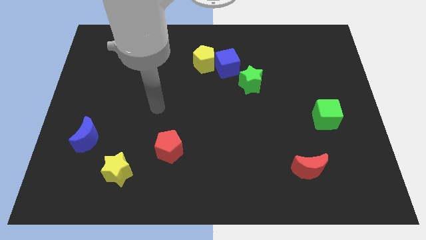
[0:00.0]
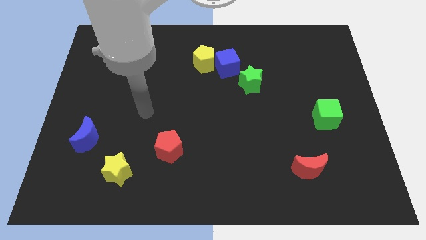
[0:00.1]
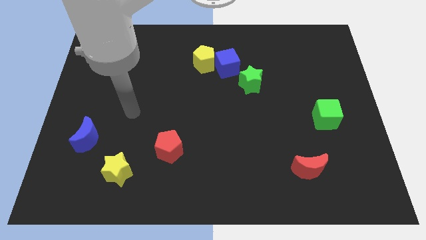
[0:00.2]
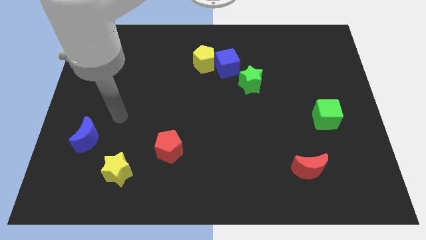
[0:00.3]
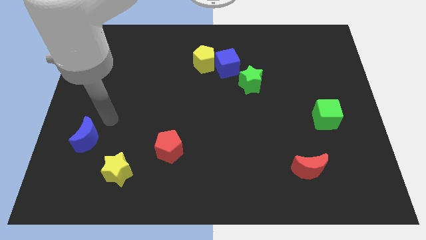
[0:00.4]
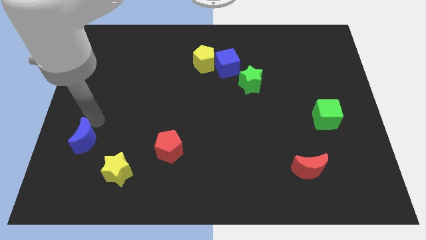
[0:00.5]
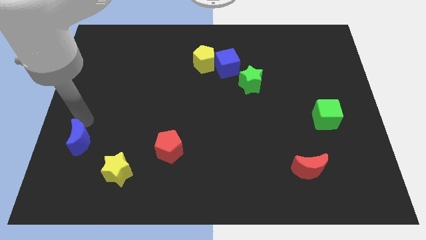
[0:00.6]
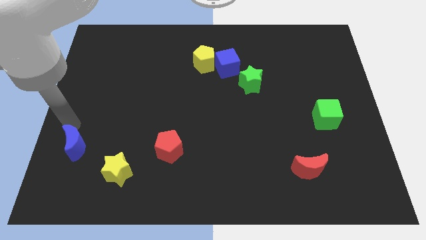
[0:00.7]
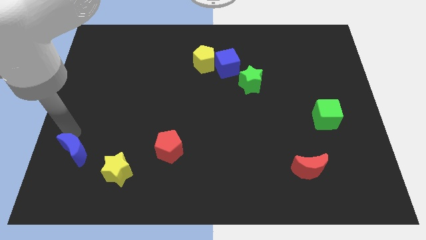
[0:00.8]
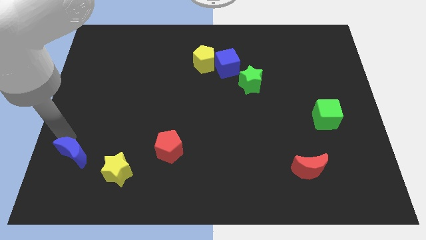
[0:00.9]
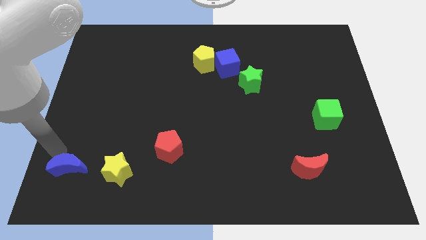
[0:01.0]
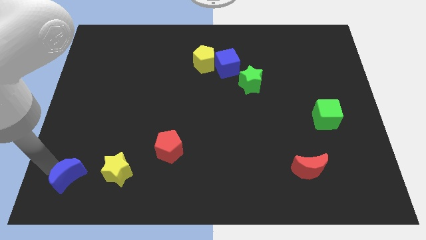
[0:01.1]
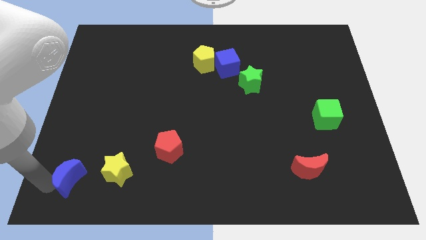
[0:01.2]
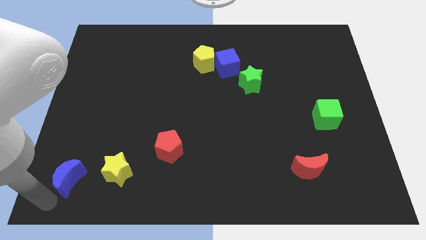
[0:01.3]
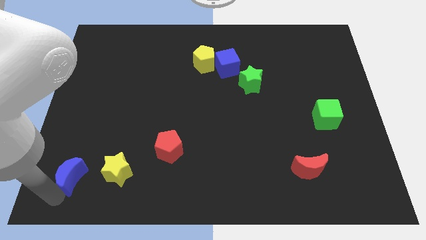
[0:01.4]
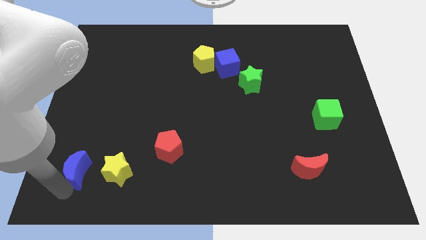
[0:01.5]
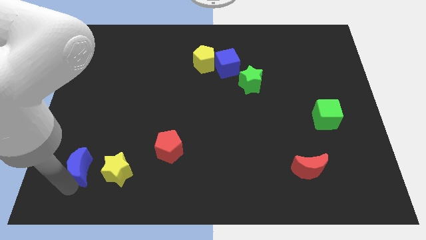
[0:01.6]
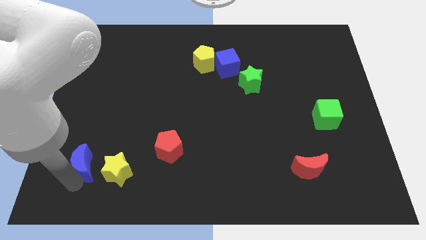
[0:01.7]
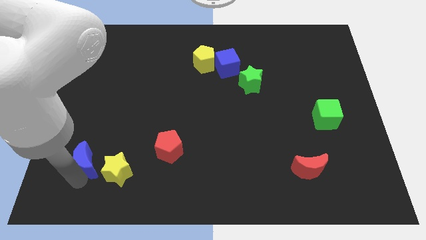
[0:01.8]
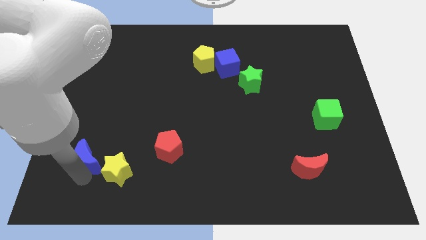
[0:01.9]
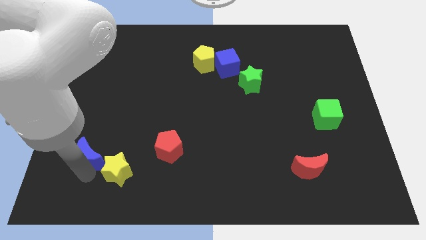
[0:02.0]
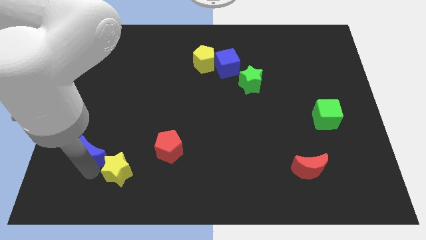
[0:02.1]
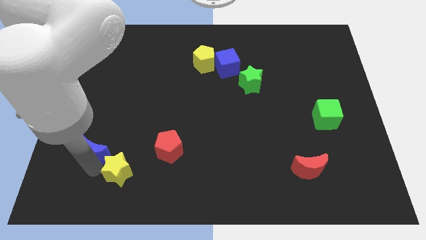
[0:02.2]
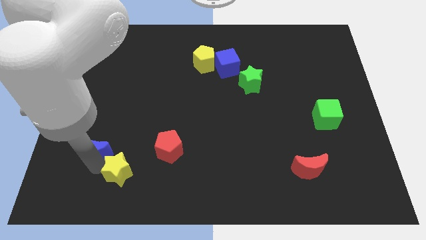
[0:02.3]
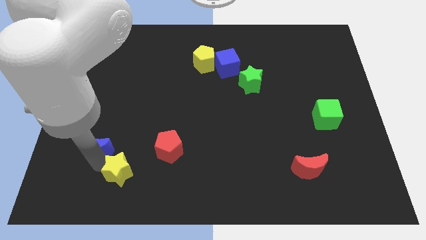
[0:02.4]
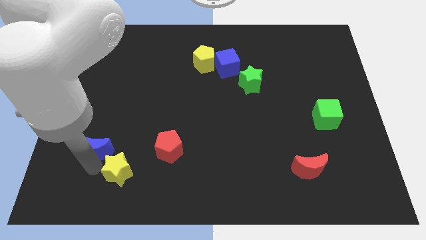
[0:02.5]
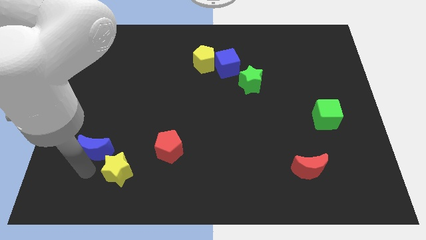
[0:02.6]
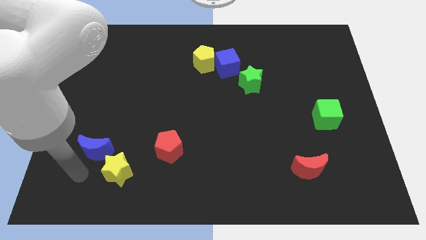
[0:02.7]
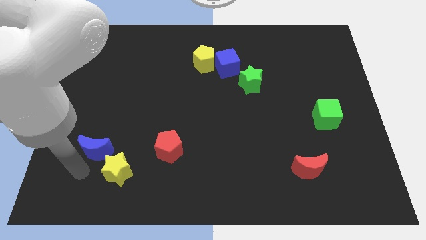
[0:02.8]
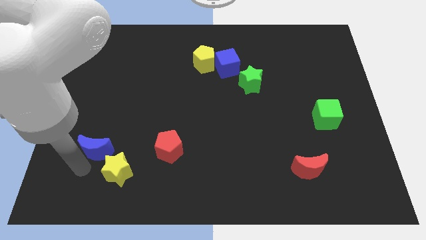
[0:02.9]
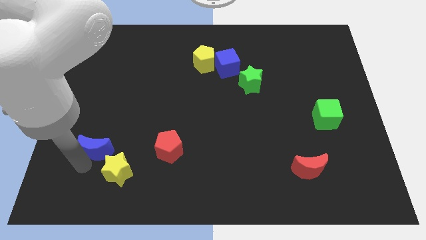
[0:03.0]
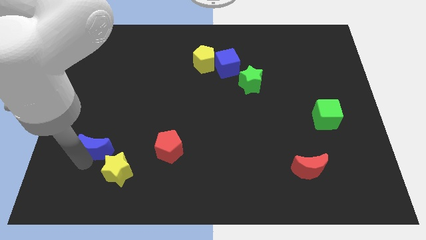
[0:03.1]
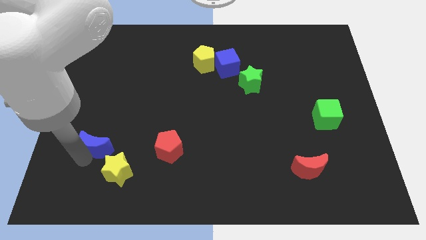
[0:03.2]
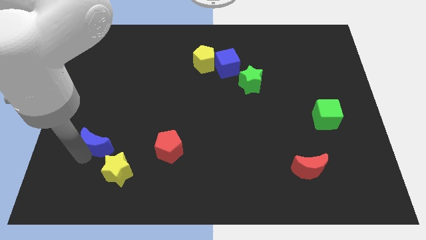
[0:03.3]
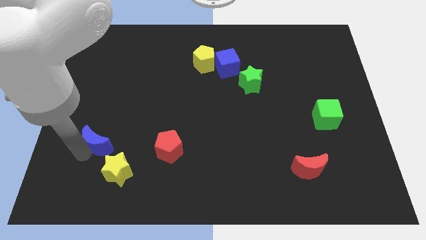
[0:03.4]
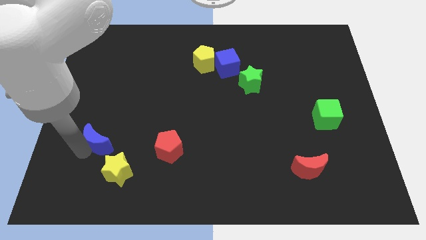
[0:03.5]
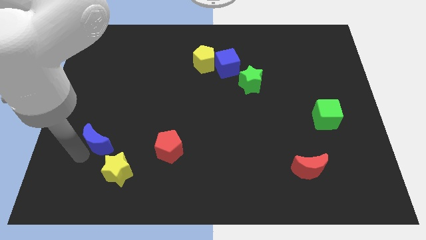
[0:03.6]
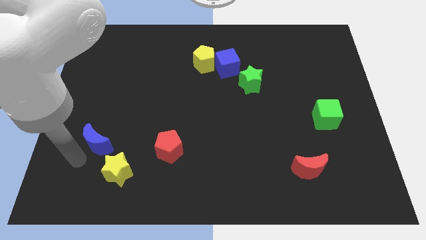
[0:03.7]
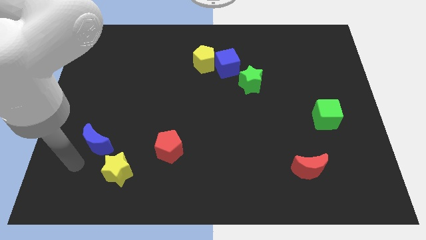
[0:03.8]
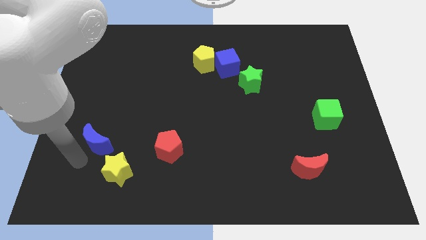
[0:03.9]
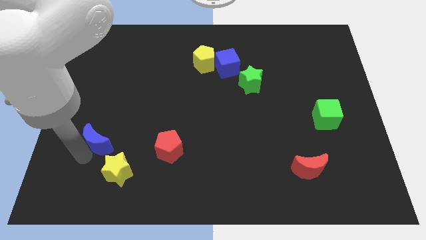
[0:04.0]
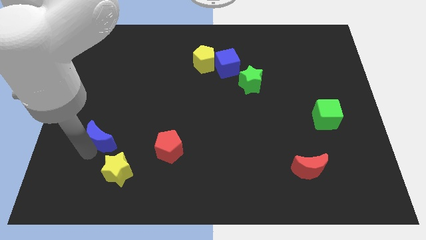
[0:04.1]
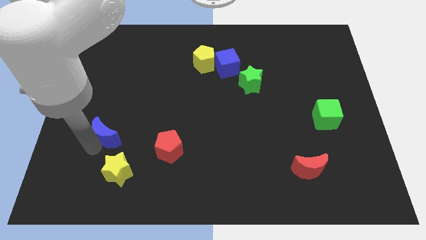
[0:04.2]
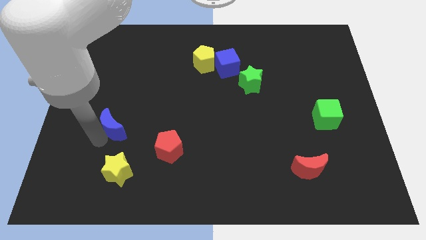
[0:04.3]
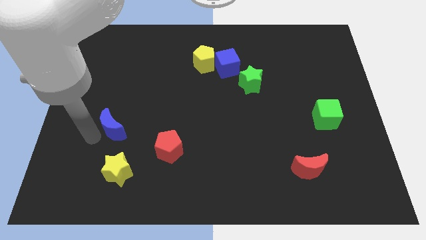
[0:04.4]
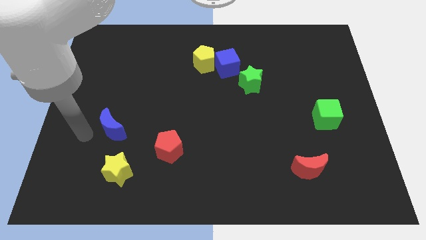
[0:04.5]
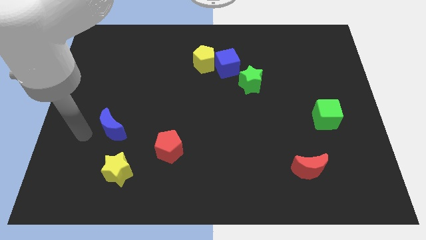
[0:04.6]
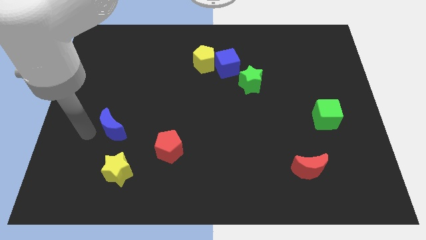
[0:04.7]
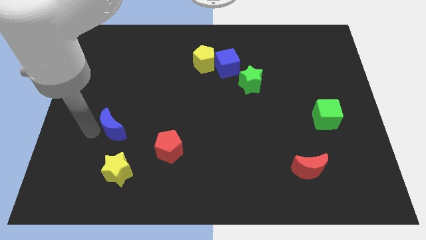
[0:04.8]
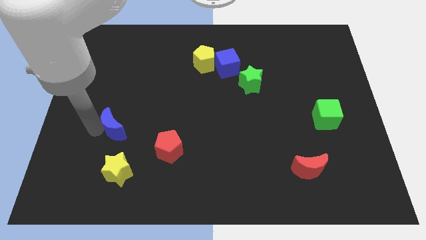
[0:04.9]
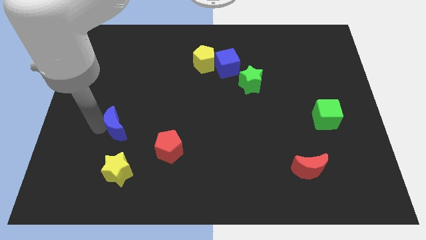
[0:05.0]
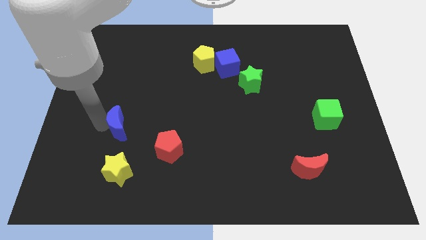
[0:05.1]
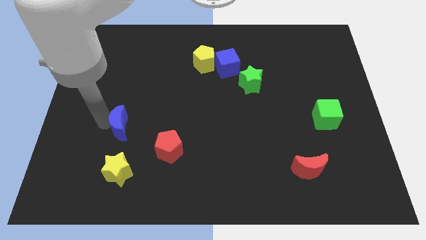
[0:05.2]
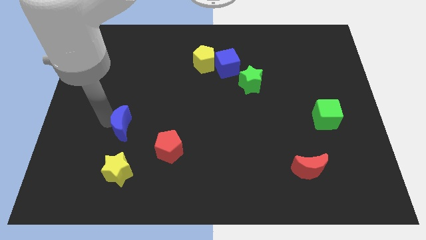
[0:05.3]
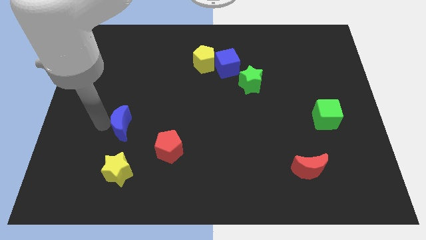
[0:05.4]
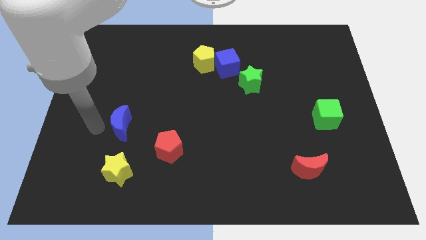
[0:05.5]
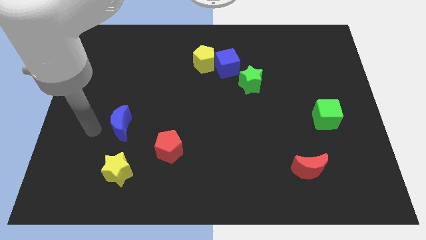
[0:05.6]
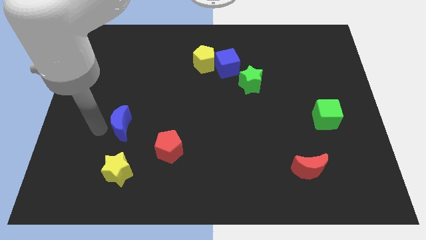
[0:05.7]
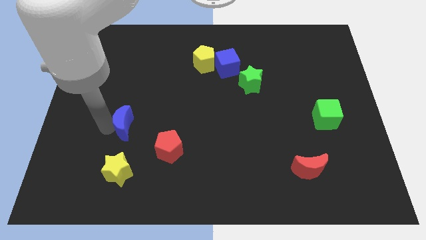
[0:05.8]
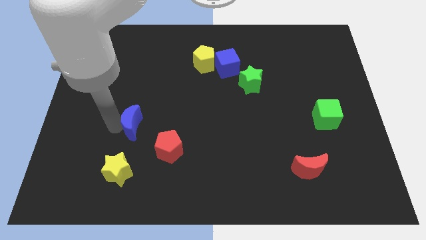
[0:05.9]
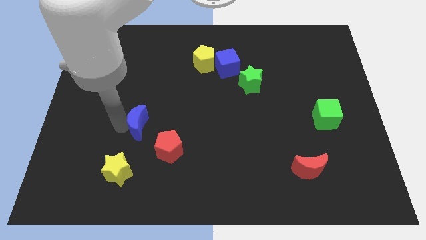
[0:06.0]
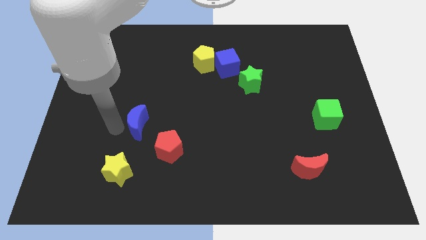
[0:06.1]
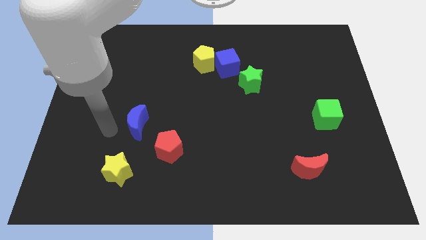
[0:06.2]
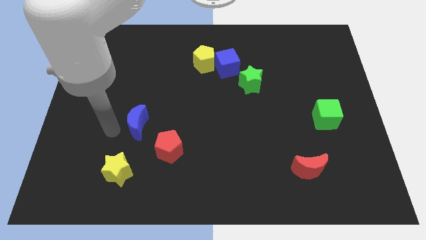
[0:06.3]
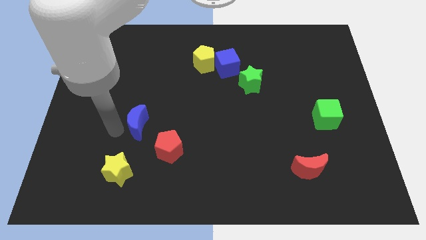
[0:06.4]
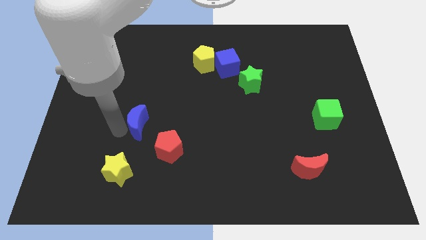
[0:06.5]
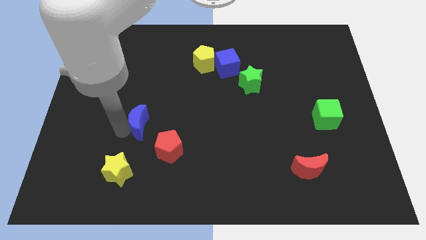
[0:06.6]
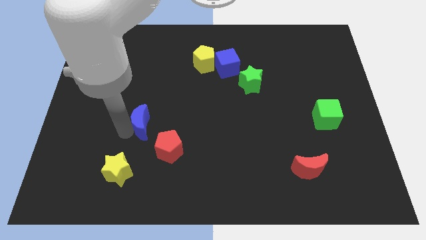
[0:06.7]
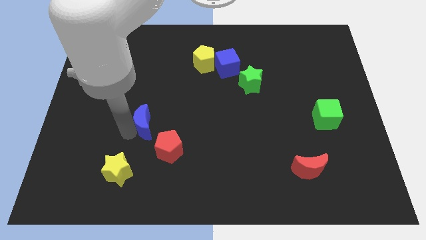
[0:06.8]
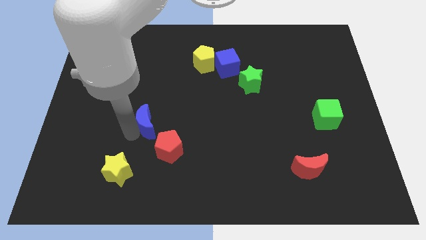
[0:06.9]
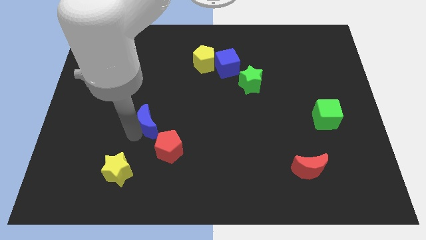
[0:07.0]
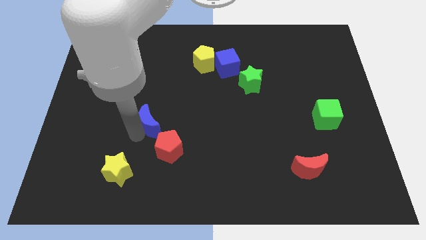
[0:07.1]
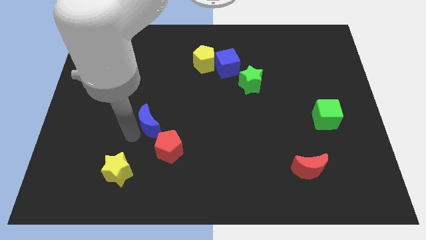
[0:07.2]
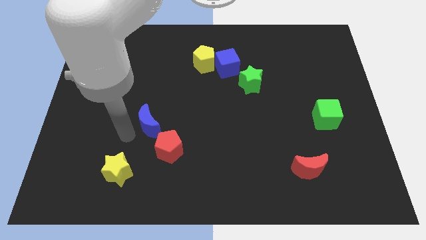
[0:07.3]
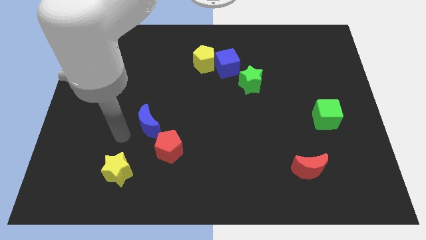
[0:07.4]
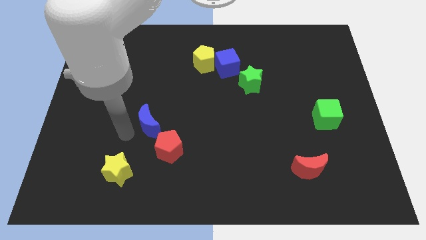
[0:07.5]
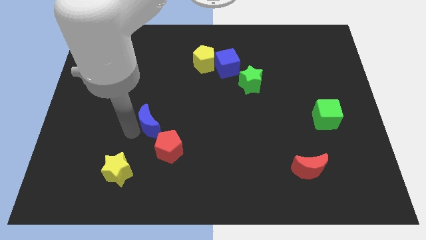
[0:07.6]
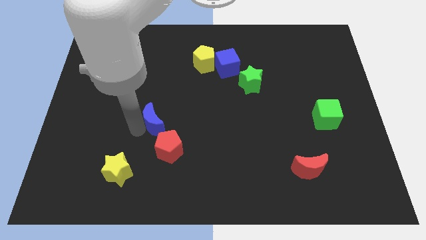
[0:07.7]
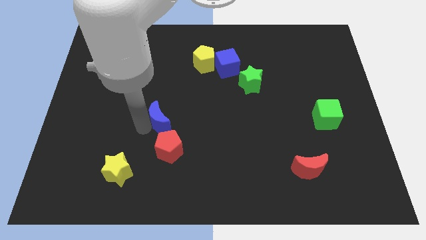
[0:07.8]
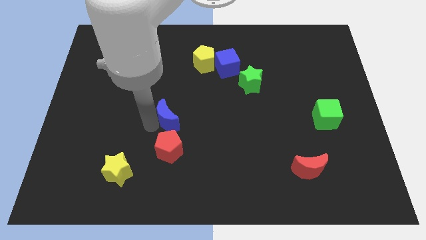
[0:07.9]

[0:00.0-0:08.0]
move the blue moon to the center of the board
